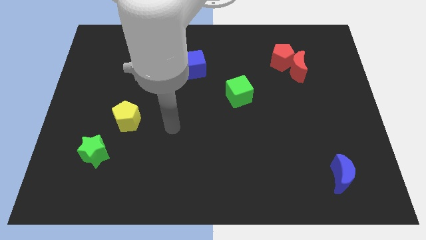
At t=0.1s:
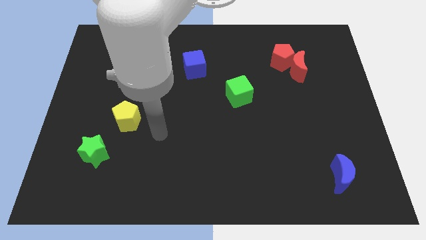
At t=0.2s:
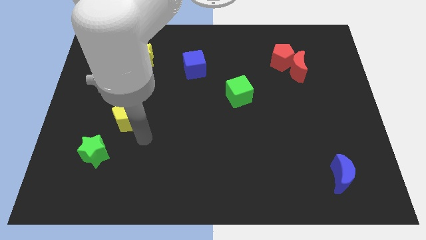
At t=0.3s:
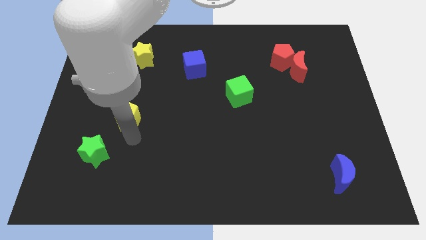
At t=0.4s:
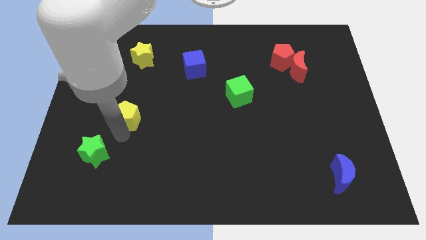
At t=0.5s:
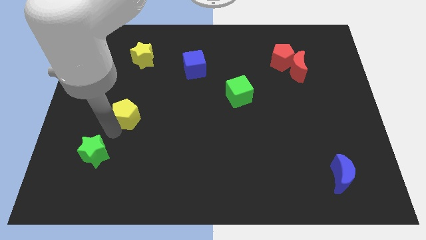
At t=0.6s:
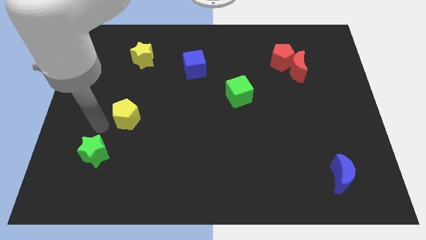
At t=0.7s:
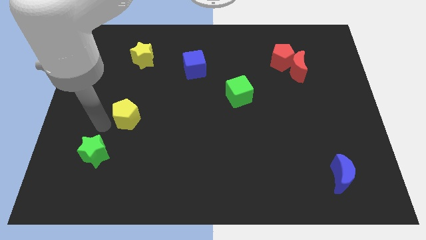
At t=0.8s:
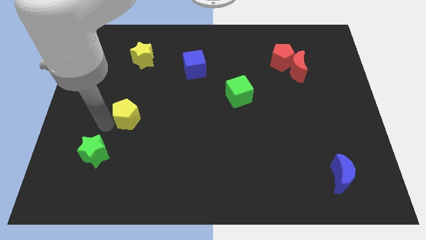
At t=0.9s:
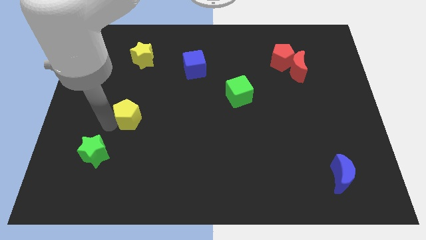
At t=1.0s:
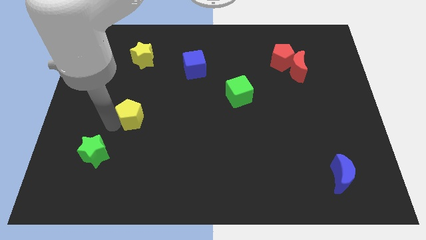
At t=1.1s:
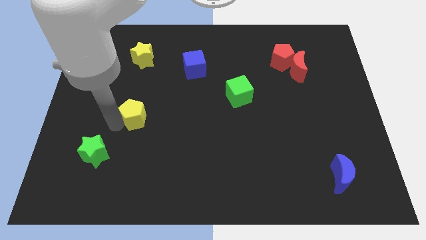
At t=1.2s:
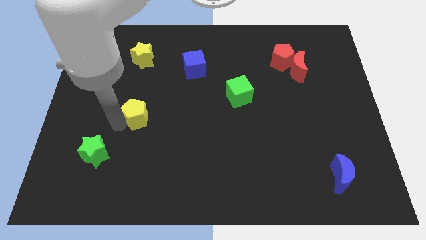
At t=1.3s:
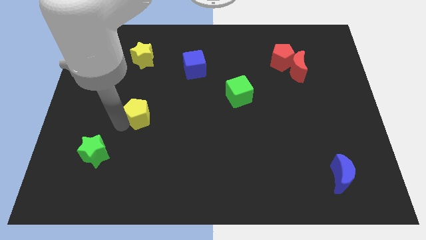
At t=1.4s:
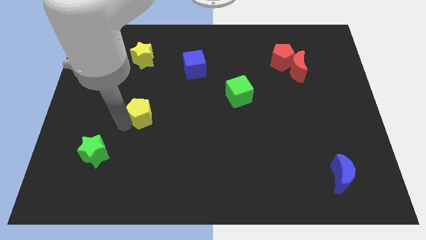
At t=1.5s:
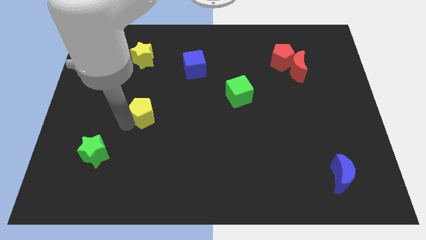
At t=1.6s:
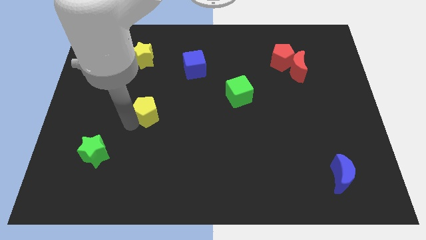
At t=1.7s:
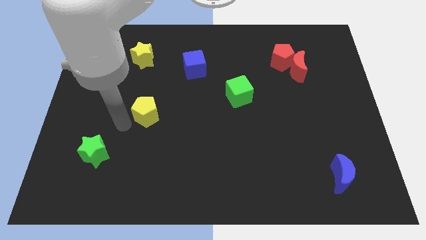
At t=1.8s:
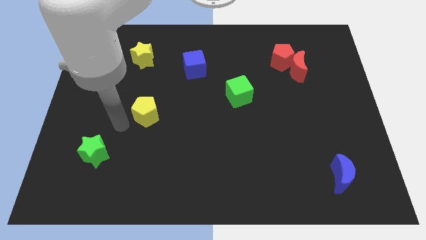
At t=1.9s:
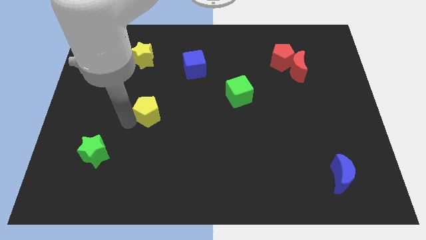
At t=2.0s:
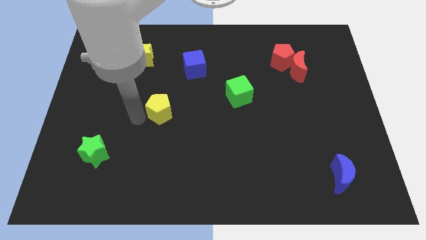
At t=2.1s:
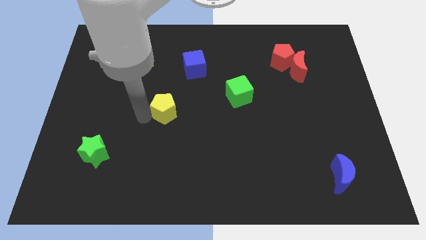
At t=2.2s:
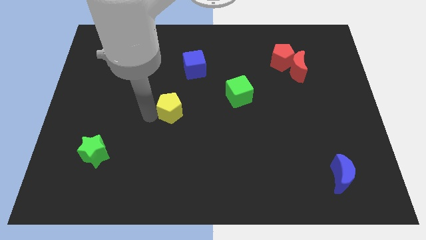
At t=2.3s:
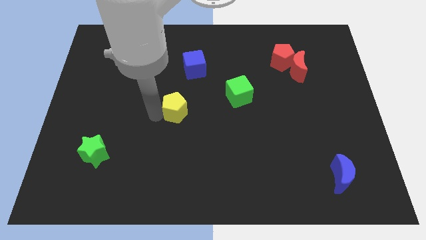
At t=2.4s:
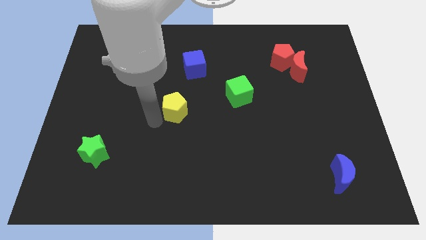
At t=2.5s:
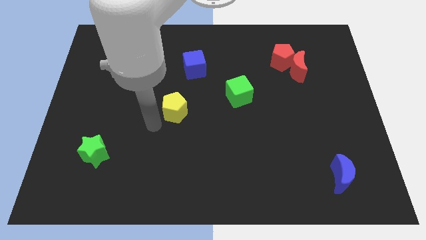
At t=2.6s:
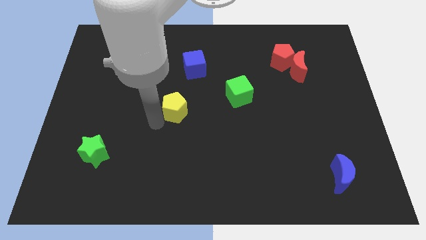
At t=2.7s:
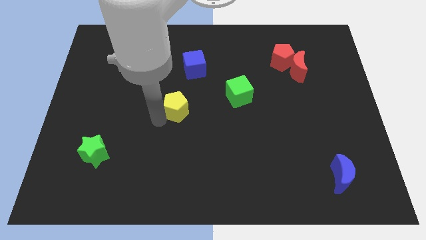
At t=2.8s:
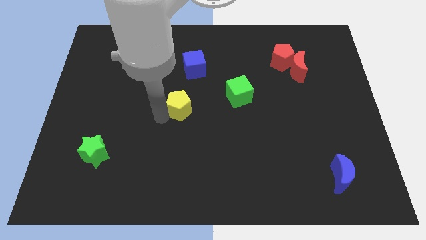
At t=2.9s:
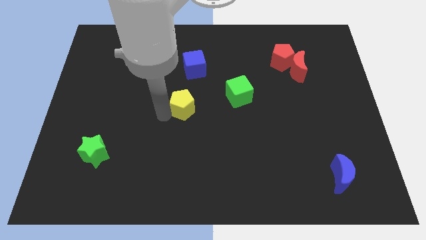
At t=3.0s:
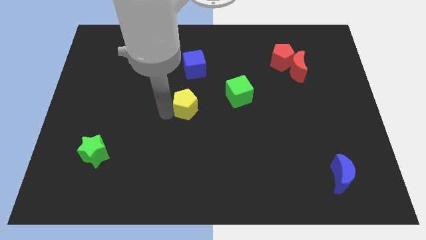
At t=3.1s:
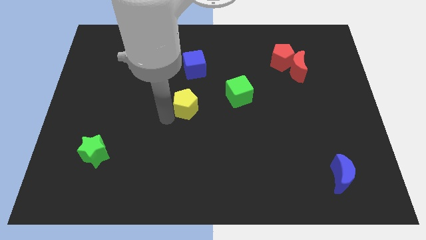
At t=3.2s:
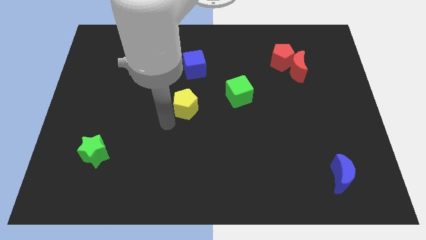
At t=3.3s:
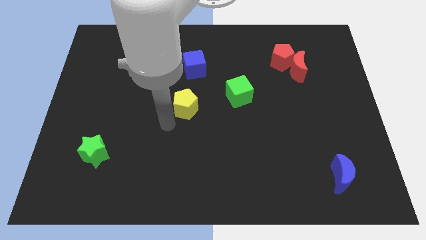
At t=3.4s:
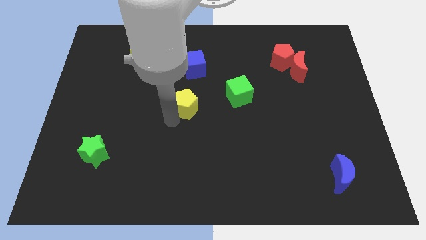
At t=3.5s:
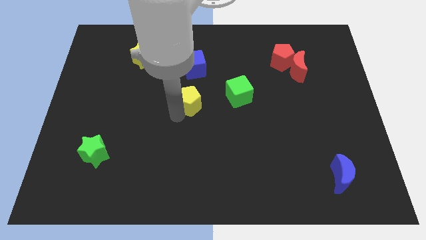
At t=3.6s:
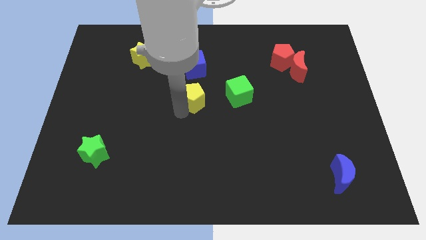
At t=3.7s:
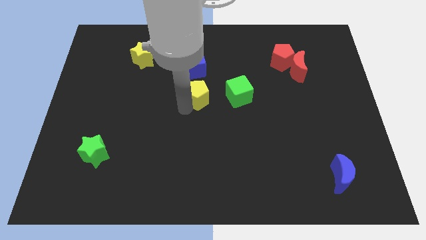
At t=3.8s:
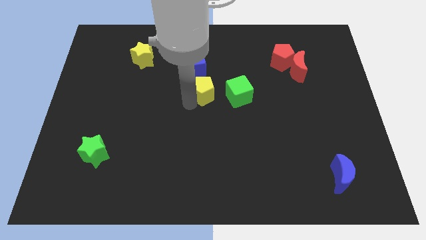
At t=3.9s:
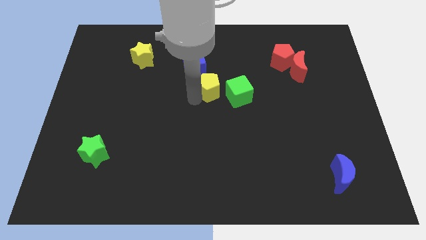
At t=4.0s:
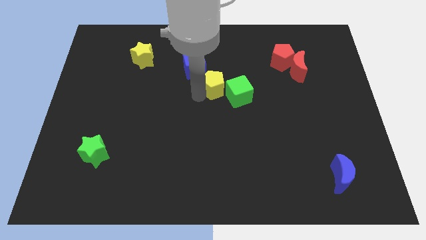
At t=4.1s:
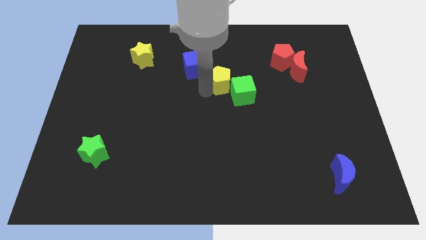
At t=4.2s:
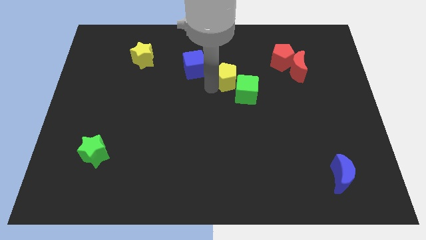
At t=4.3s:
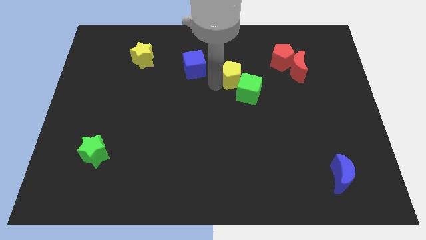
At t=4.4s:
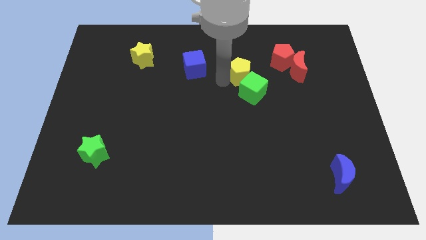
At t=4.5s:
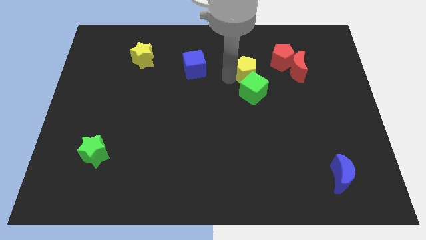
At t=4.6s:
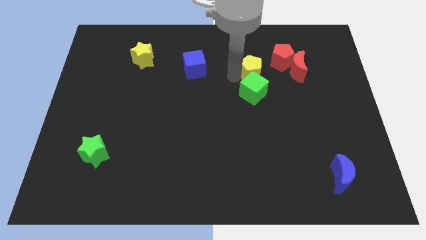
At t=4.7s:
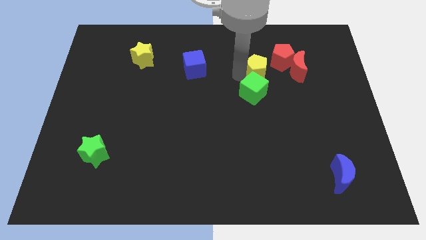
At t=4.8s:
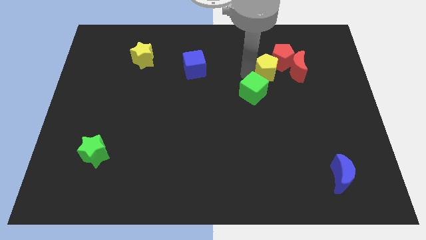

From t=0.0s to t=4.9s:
put the yellow pentagon to the red pentagon

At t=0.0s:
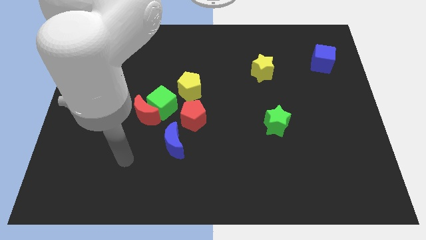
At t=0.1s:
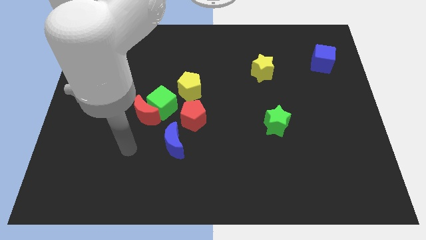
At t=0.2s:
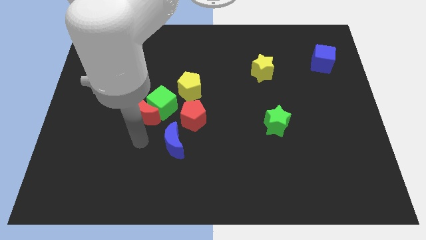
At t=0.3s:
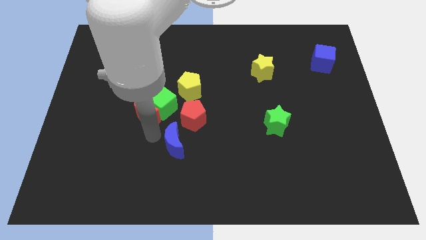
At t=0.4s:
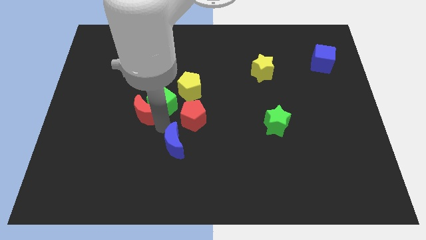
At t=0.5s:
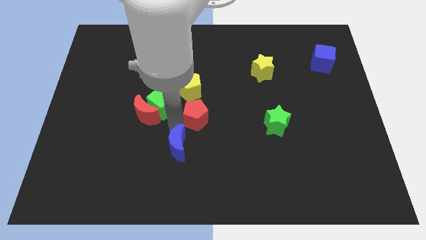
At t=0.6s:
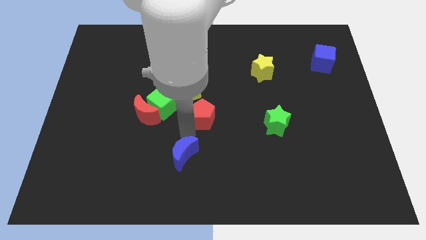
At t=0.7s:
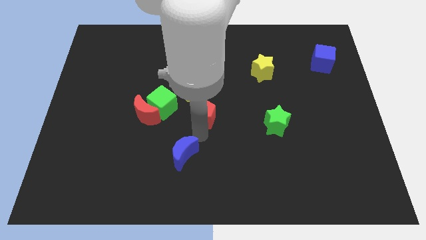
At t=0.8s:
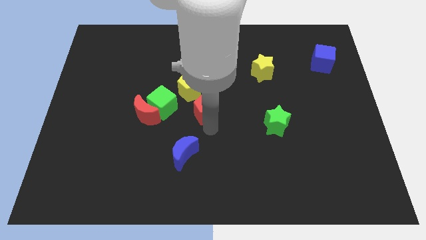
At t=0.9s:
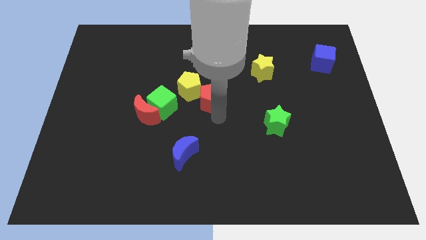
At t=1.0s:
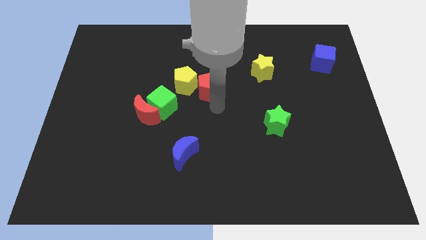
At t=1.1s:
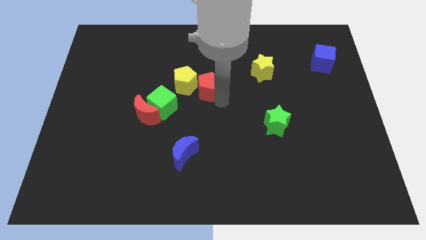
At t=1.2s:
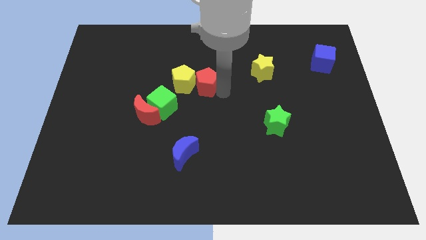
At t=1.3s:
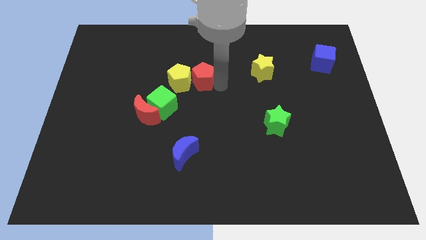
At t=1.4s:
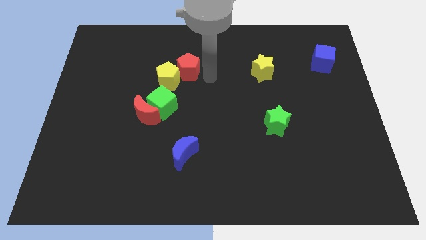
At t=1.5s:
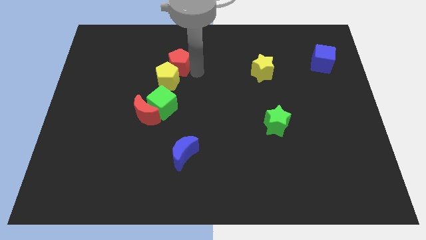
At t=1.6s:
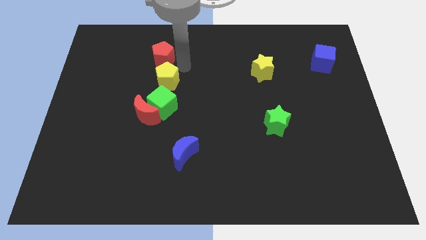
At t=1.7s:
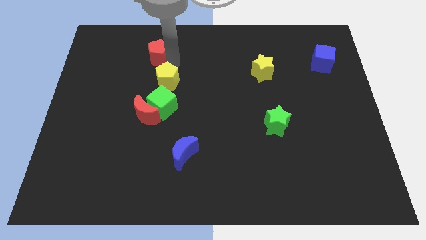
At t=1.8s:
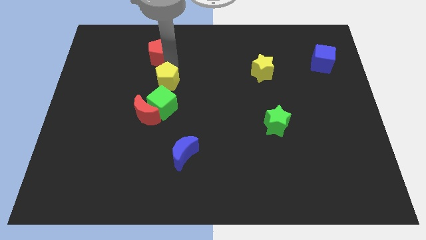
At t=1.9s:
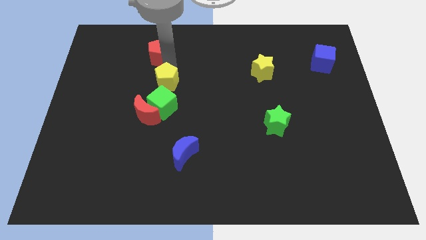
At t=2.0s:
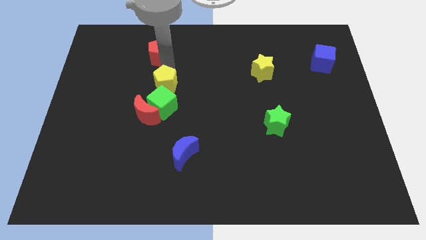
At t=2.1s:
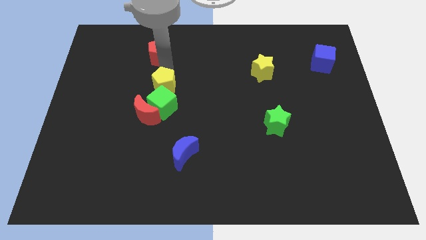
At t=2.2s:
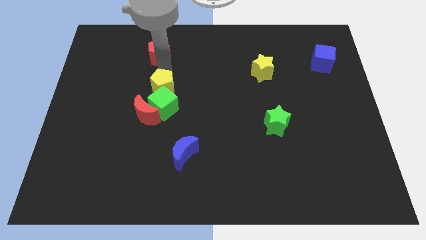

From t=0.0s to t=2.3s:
put the yellow pentagon close to the green cube
